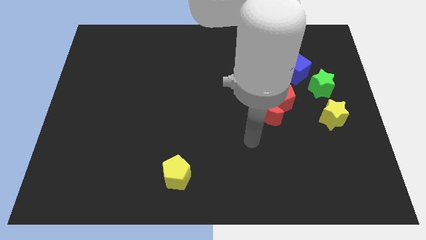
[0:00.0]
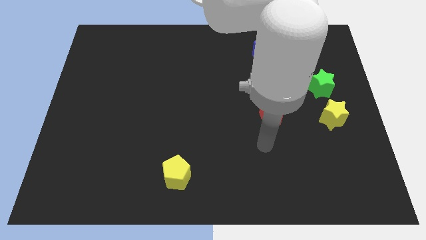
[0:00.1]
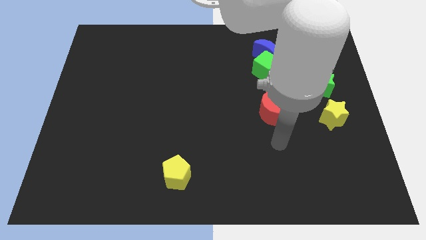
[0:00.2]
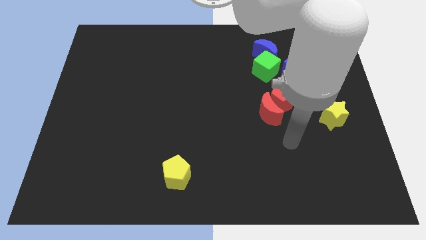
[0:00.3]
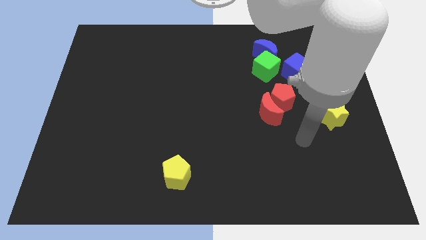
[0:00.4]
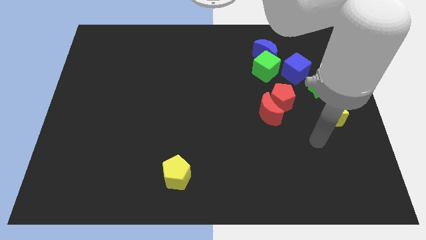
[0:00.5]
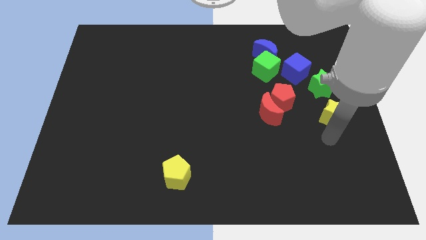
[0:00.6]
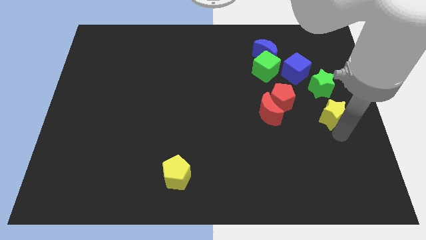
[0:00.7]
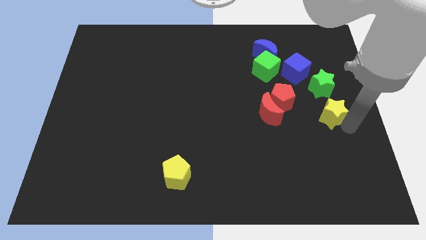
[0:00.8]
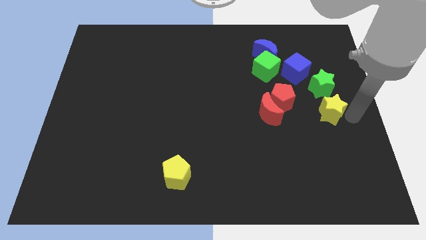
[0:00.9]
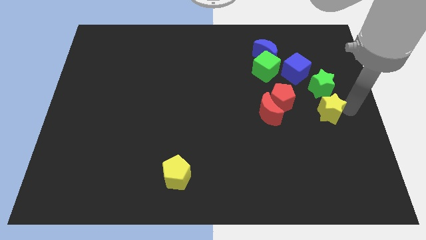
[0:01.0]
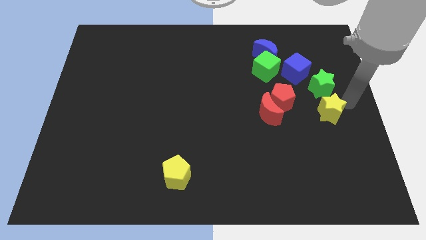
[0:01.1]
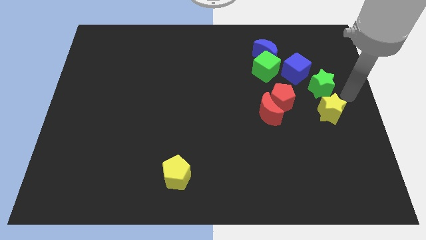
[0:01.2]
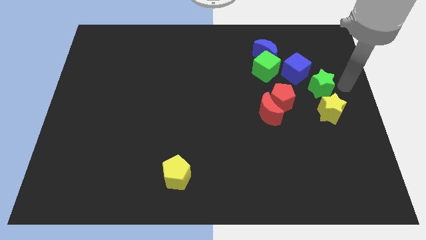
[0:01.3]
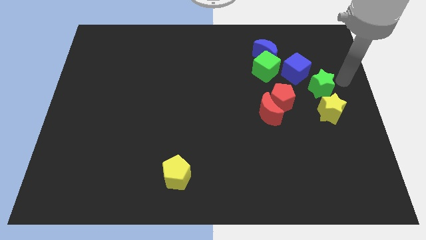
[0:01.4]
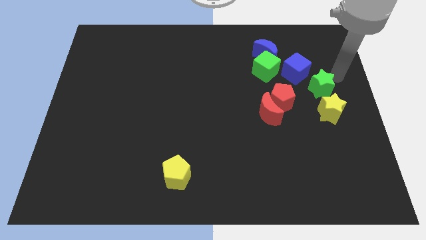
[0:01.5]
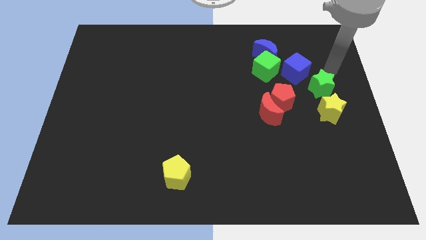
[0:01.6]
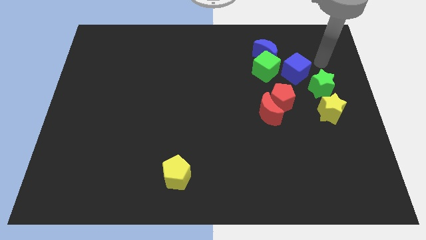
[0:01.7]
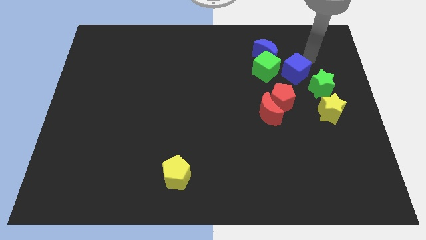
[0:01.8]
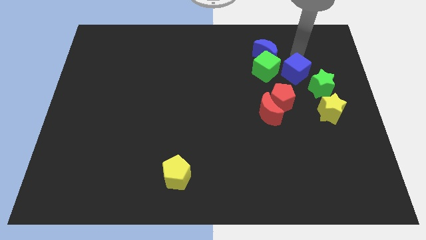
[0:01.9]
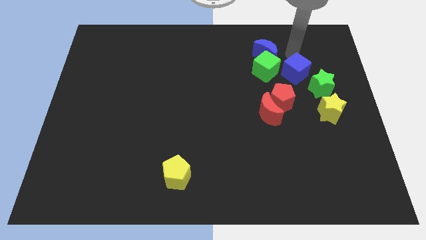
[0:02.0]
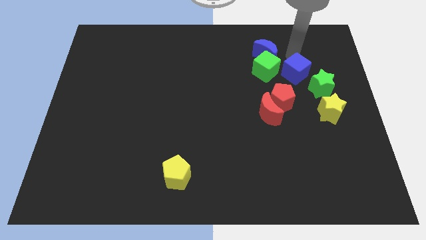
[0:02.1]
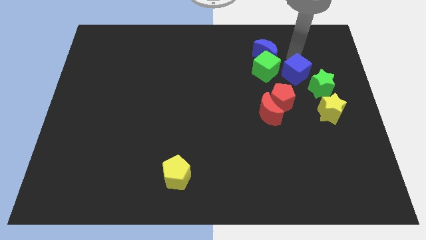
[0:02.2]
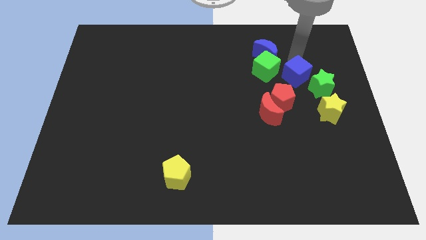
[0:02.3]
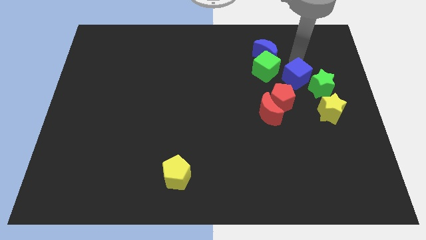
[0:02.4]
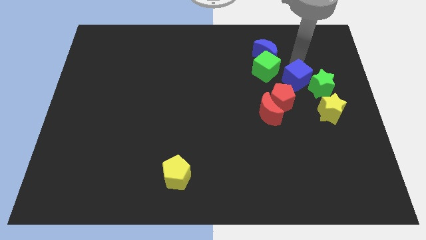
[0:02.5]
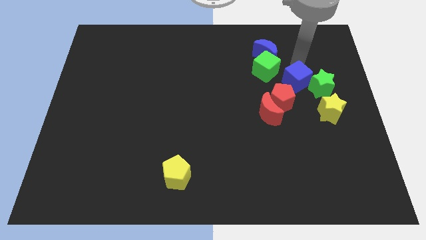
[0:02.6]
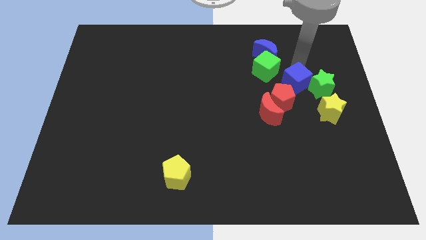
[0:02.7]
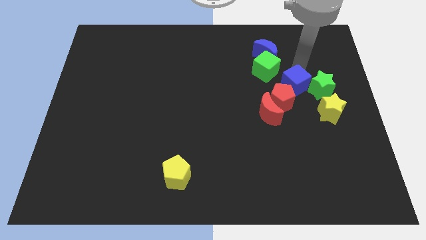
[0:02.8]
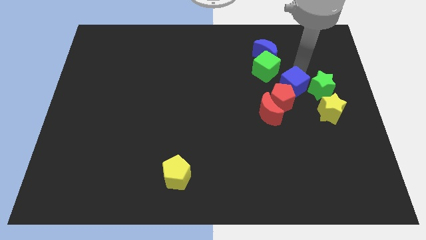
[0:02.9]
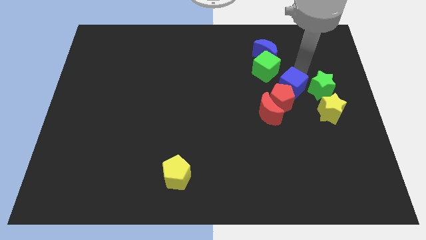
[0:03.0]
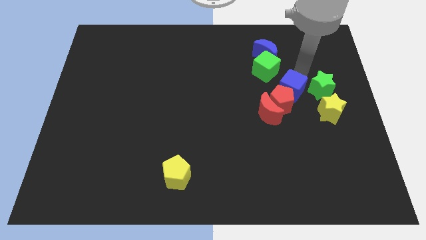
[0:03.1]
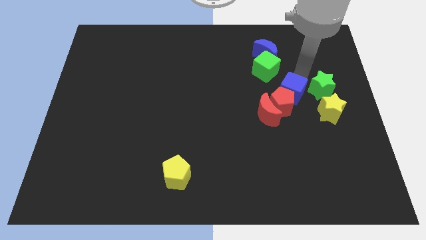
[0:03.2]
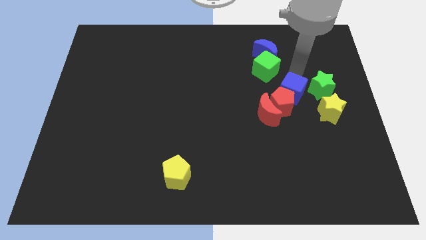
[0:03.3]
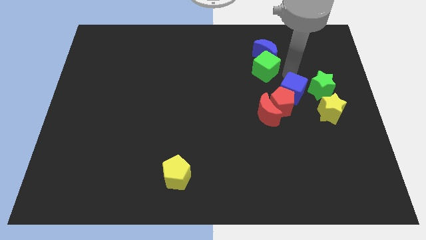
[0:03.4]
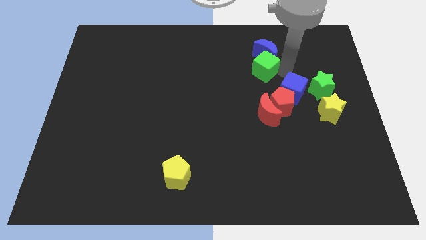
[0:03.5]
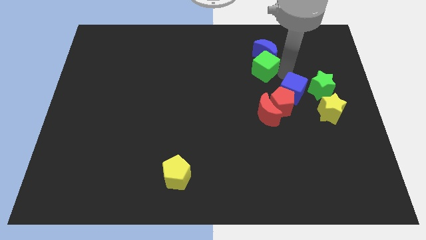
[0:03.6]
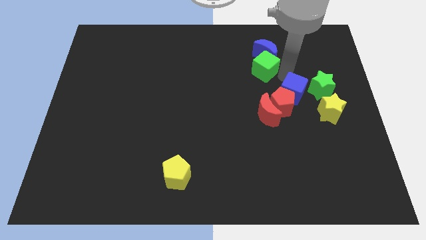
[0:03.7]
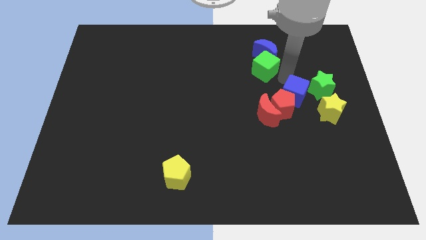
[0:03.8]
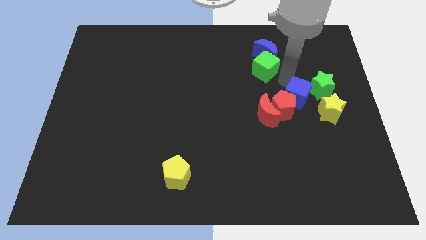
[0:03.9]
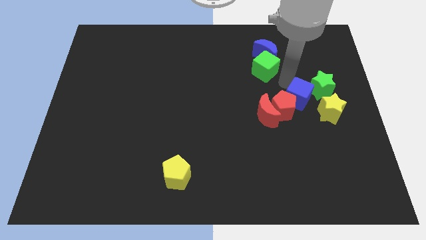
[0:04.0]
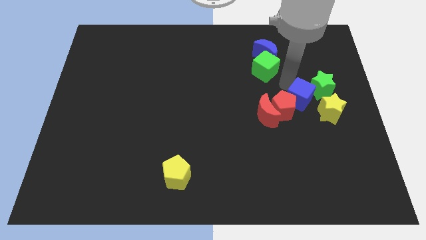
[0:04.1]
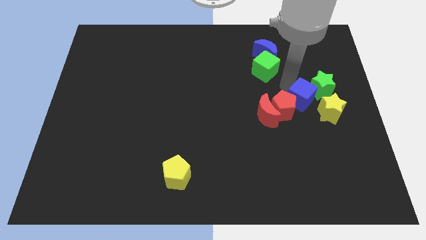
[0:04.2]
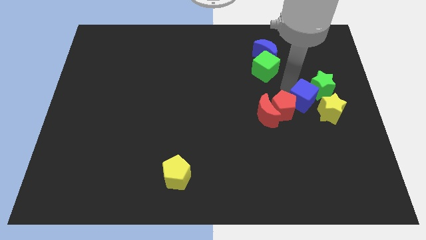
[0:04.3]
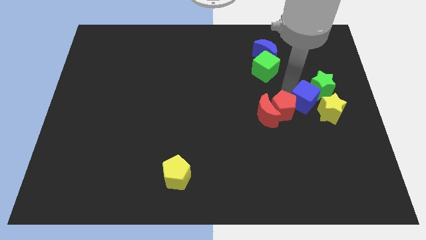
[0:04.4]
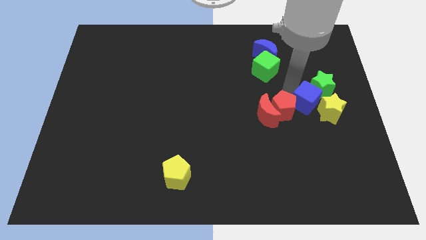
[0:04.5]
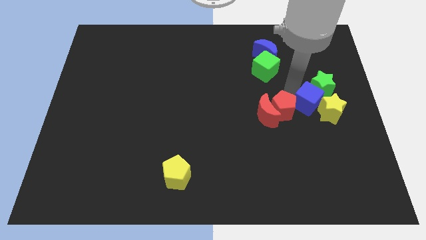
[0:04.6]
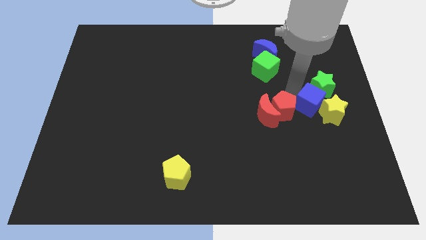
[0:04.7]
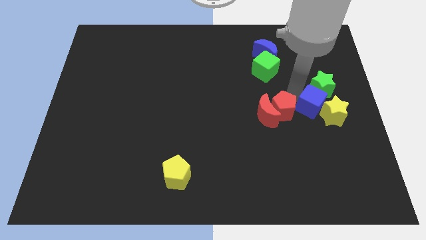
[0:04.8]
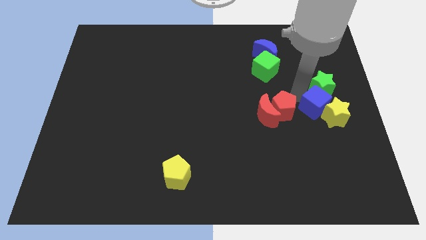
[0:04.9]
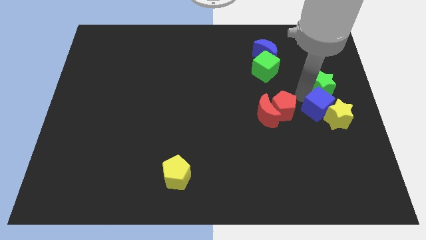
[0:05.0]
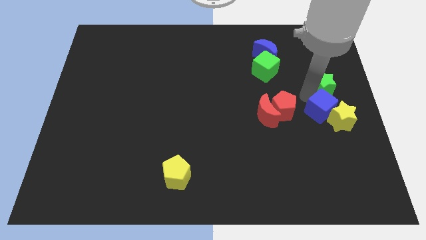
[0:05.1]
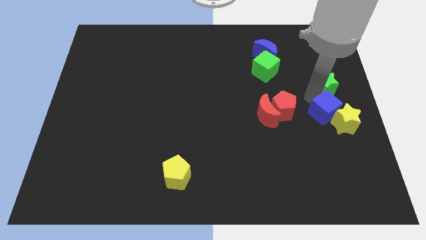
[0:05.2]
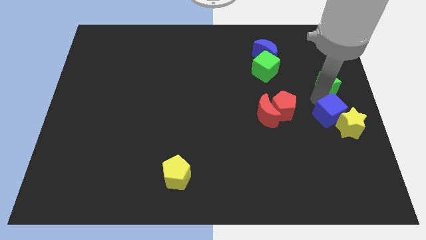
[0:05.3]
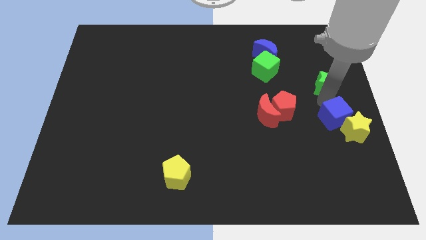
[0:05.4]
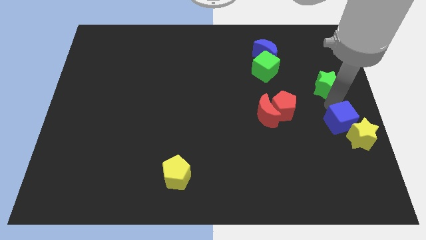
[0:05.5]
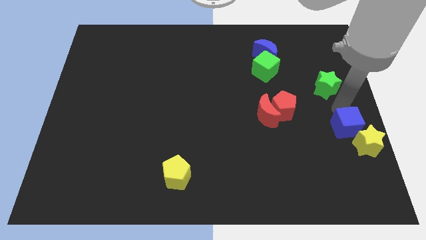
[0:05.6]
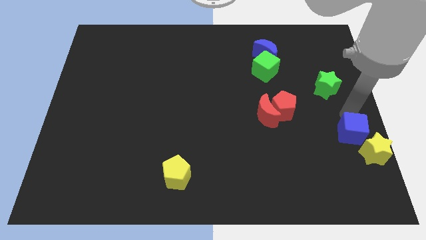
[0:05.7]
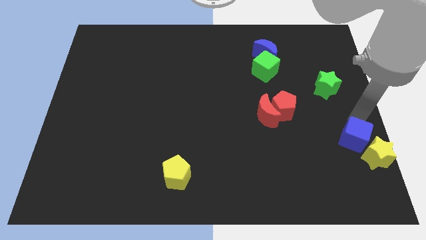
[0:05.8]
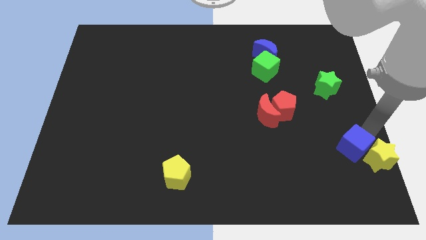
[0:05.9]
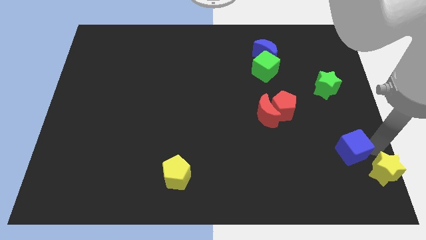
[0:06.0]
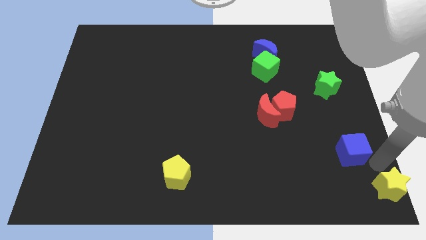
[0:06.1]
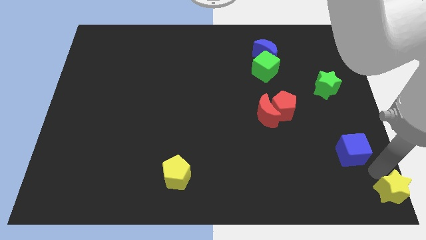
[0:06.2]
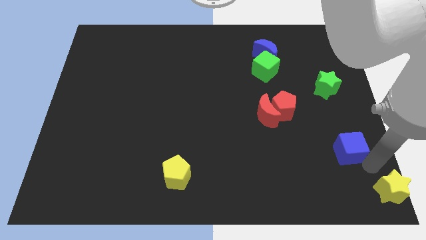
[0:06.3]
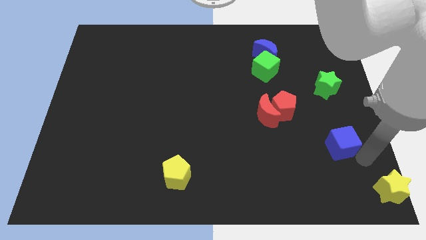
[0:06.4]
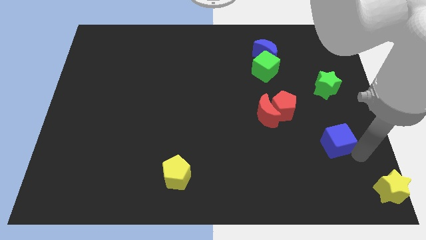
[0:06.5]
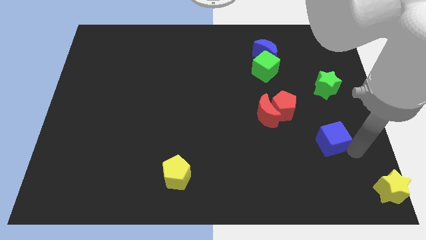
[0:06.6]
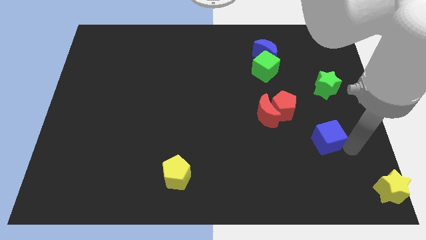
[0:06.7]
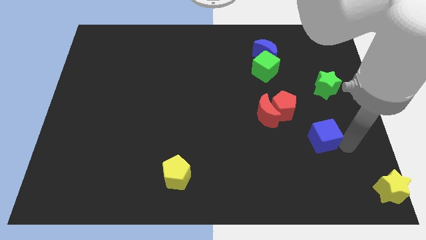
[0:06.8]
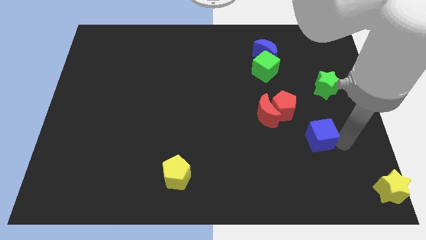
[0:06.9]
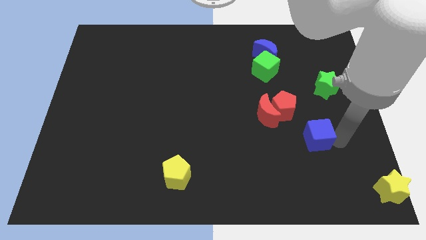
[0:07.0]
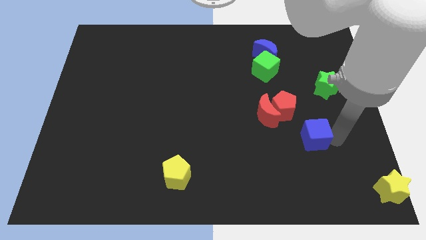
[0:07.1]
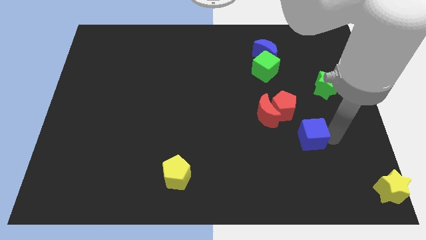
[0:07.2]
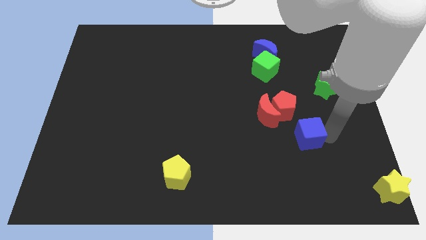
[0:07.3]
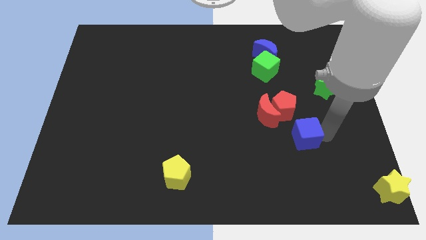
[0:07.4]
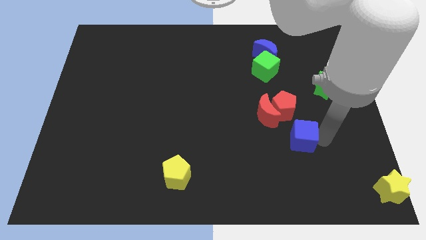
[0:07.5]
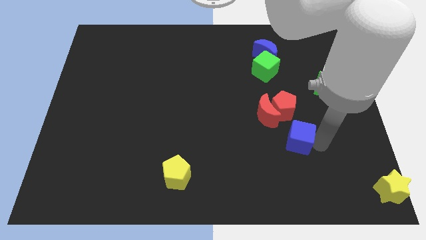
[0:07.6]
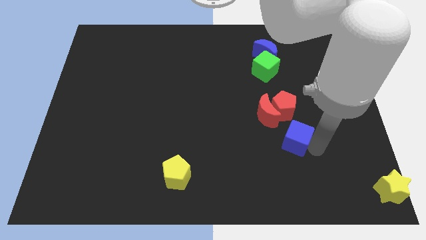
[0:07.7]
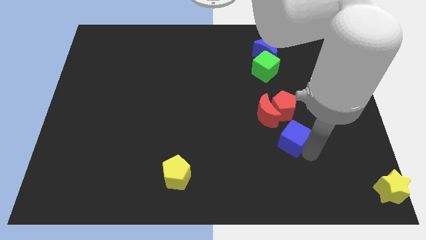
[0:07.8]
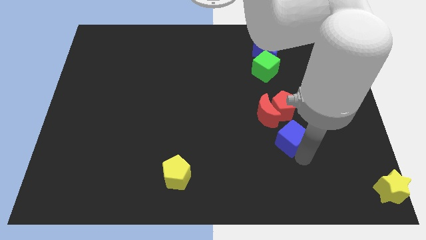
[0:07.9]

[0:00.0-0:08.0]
push the blue cube to the bottom of the red moon
